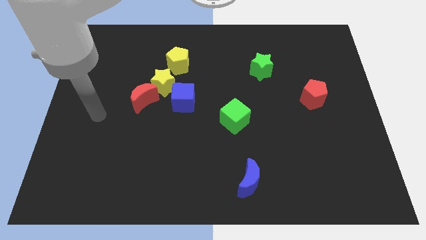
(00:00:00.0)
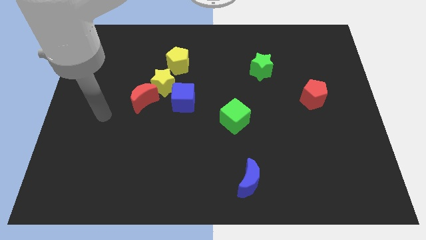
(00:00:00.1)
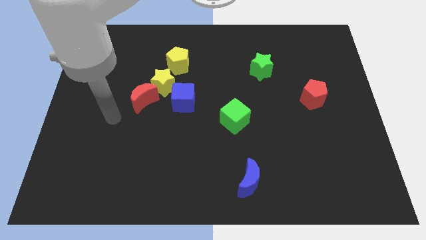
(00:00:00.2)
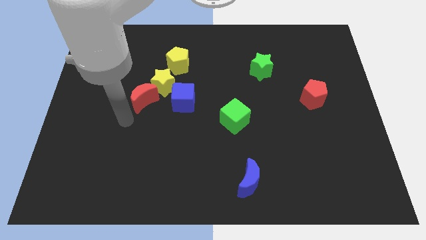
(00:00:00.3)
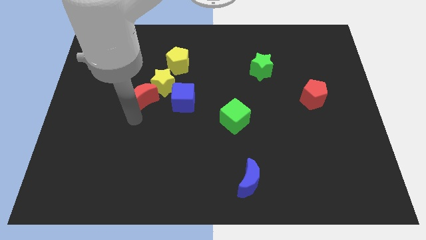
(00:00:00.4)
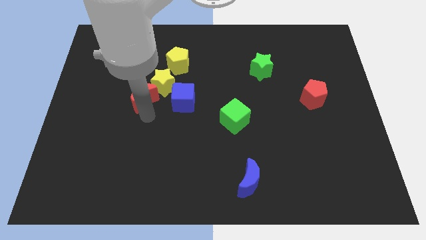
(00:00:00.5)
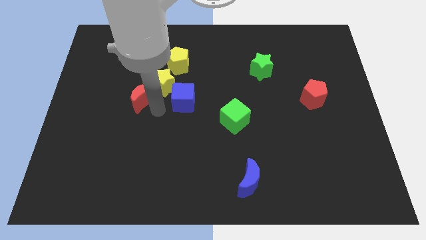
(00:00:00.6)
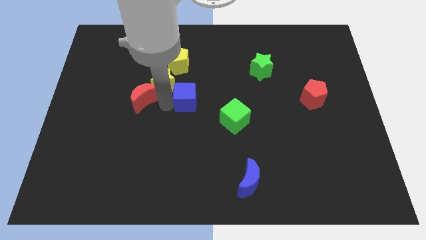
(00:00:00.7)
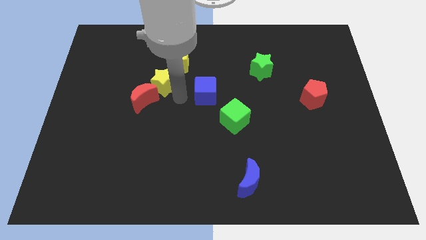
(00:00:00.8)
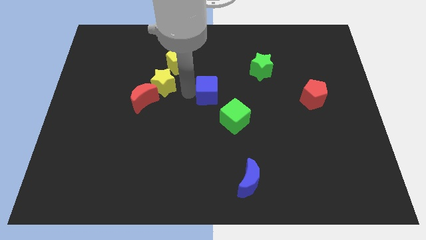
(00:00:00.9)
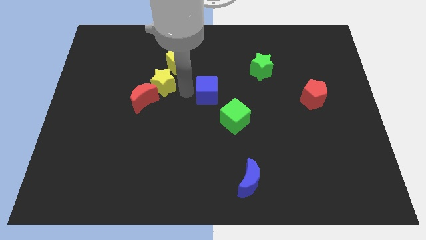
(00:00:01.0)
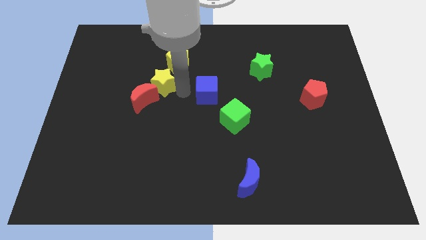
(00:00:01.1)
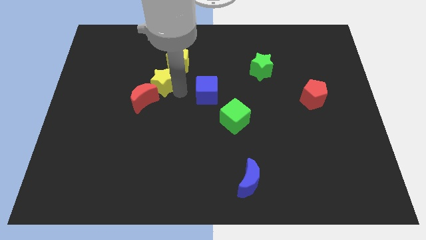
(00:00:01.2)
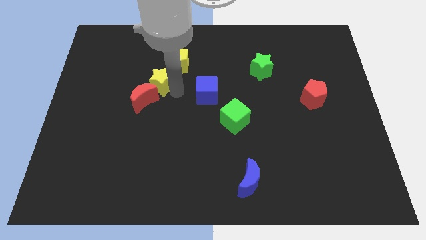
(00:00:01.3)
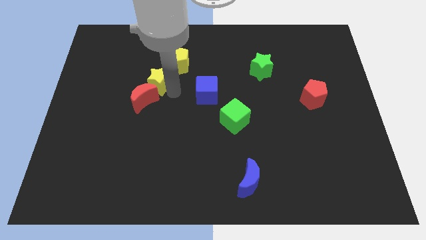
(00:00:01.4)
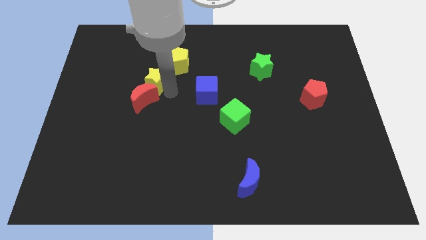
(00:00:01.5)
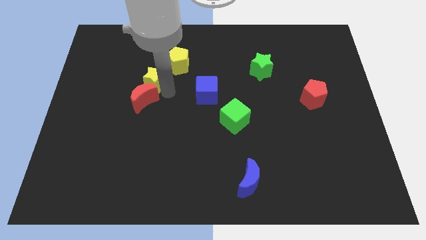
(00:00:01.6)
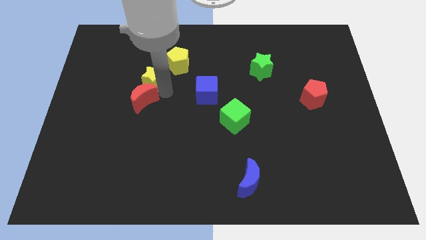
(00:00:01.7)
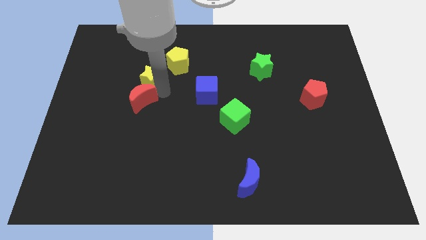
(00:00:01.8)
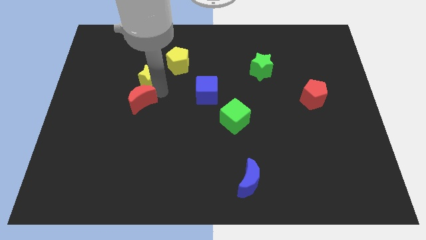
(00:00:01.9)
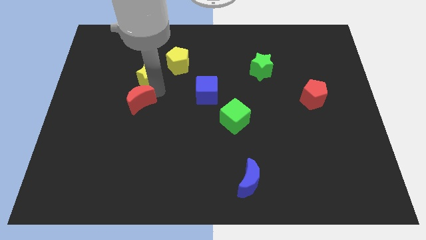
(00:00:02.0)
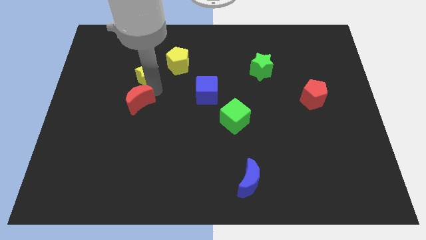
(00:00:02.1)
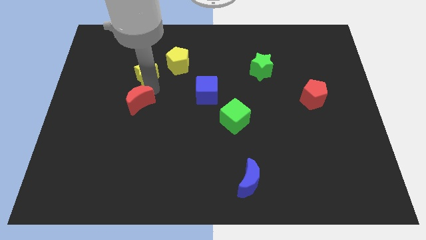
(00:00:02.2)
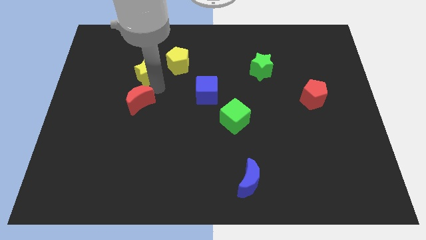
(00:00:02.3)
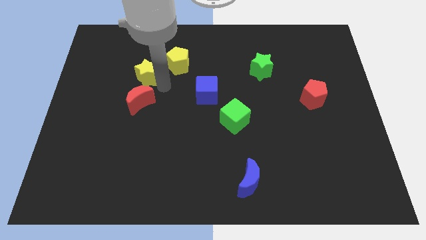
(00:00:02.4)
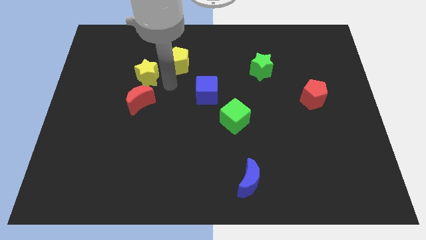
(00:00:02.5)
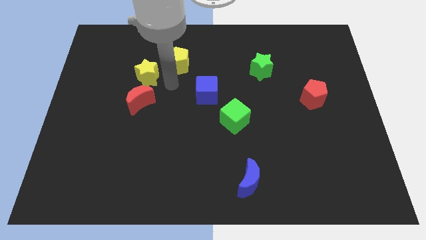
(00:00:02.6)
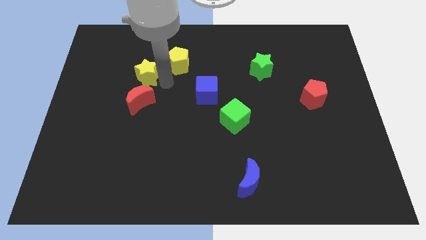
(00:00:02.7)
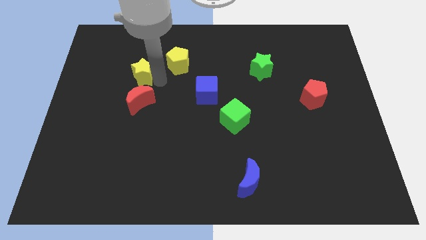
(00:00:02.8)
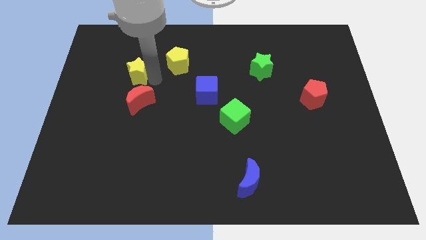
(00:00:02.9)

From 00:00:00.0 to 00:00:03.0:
move the yellow star away from the red moon, blue cube, and yellow pentagon

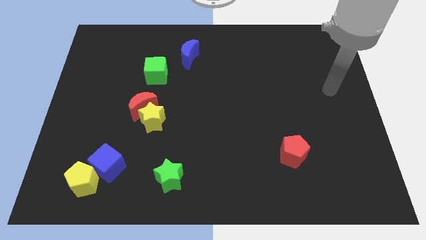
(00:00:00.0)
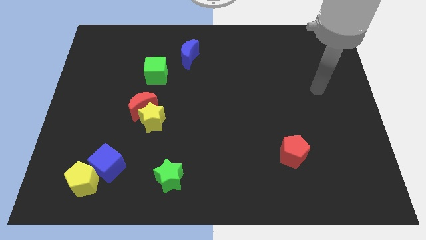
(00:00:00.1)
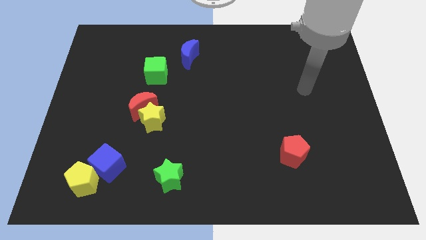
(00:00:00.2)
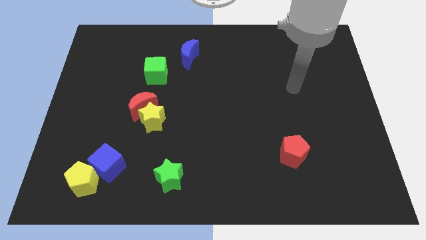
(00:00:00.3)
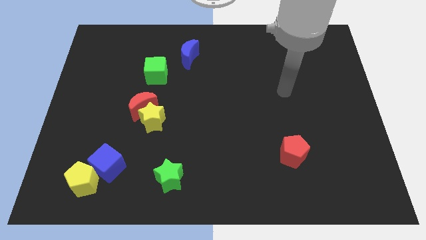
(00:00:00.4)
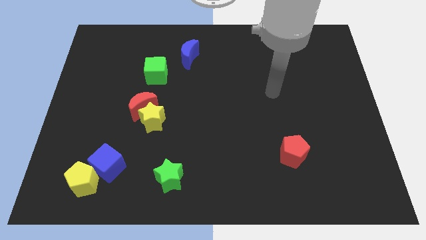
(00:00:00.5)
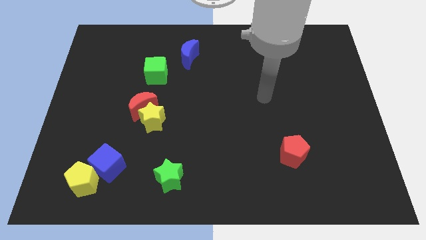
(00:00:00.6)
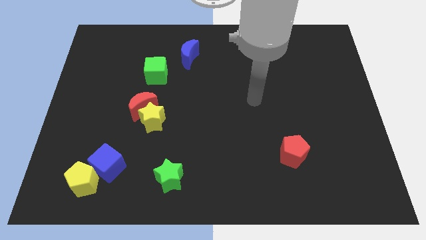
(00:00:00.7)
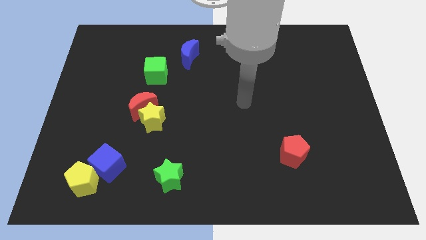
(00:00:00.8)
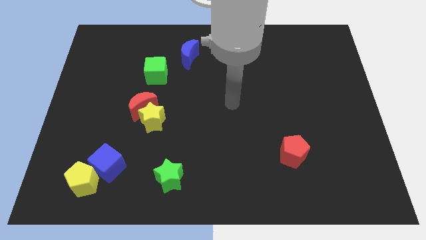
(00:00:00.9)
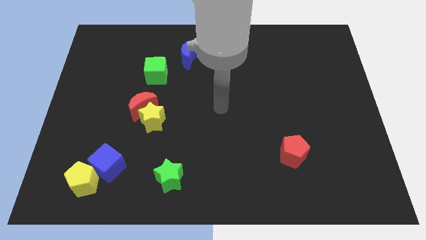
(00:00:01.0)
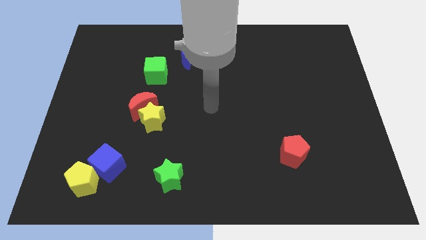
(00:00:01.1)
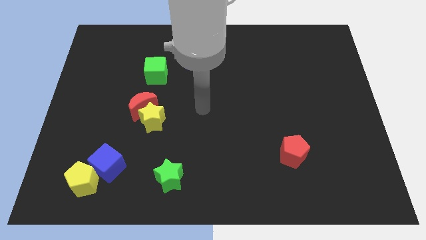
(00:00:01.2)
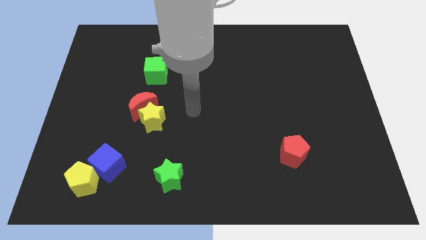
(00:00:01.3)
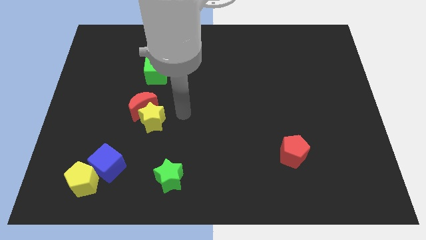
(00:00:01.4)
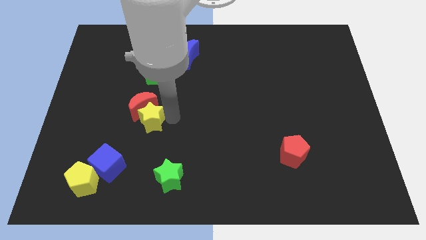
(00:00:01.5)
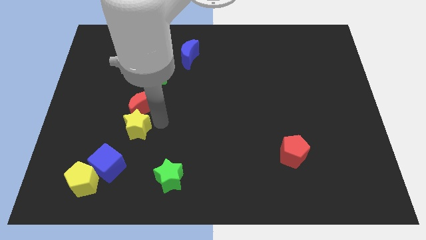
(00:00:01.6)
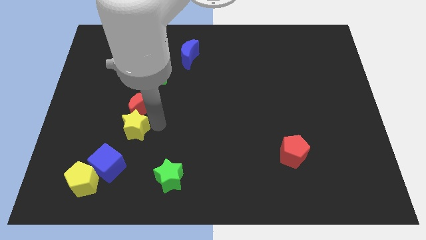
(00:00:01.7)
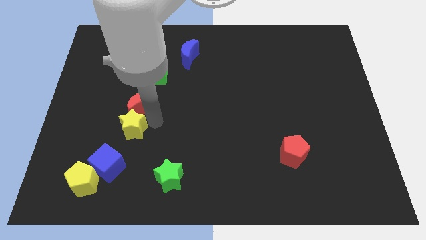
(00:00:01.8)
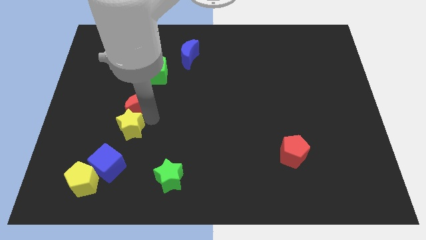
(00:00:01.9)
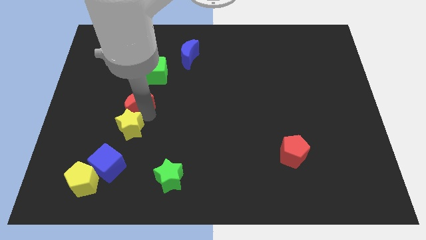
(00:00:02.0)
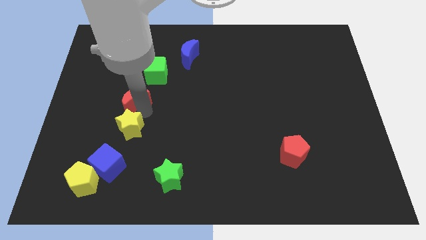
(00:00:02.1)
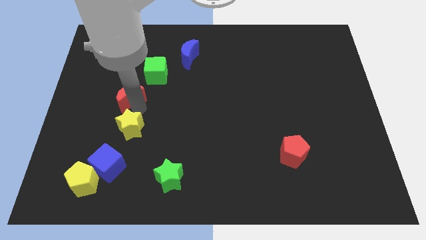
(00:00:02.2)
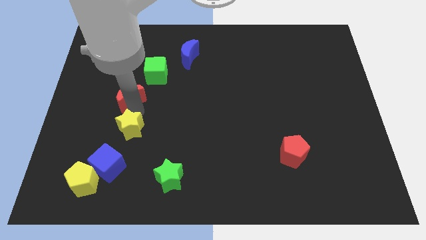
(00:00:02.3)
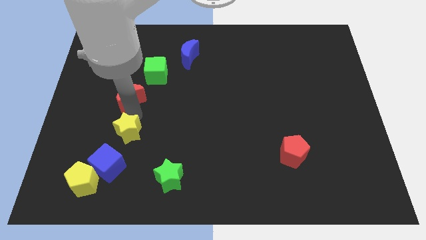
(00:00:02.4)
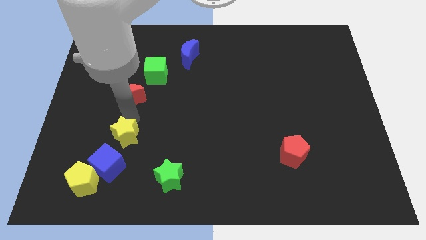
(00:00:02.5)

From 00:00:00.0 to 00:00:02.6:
separate the red moon from the yellow star

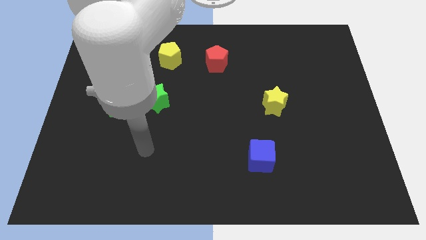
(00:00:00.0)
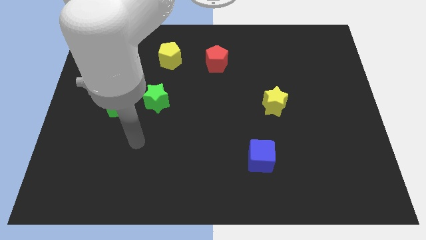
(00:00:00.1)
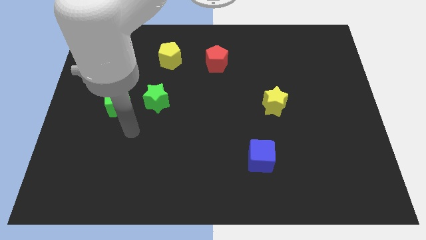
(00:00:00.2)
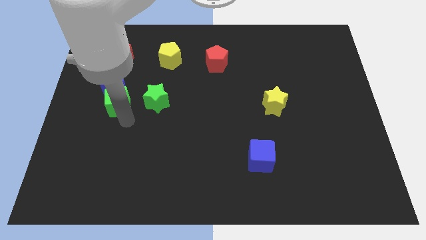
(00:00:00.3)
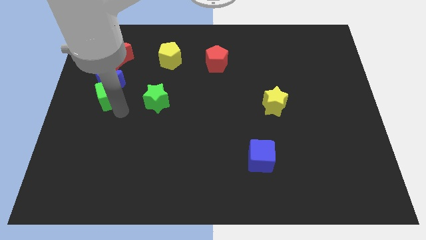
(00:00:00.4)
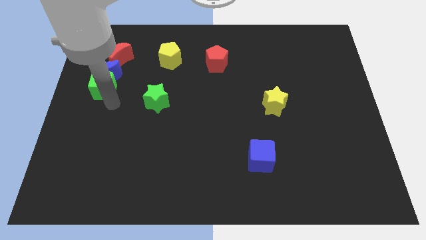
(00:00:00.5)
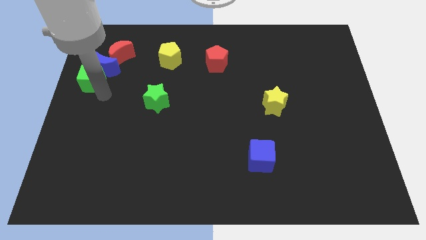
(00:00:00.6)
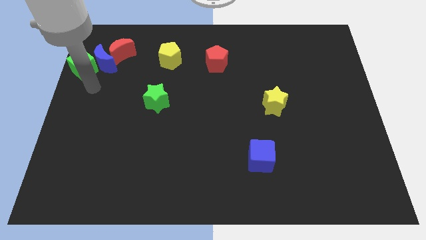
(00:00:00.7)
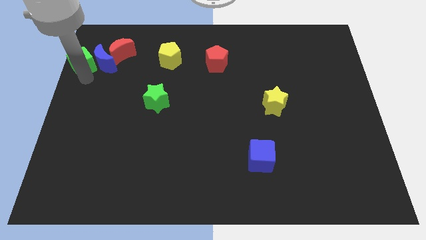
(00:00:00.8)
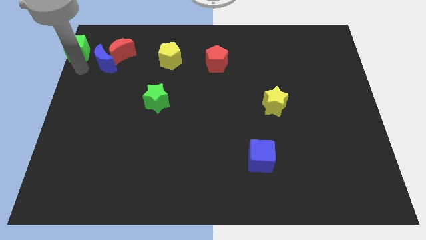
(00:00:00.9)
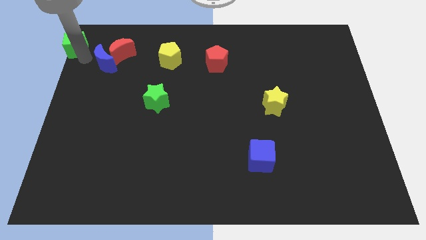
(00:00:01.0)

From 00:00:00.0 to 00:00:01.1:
pull the blue moon apart from the green cube

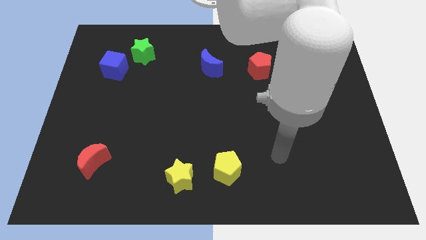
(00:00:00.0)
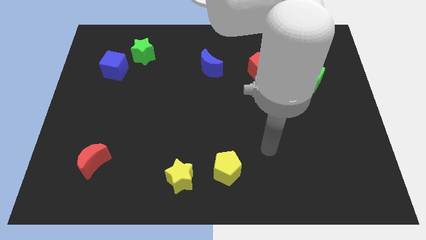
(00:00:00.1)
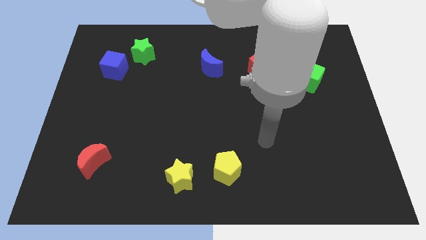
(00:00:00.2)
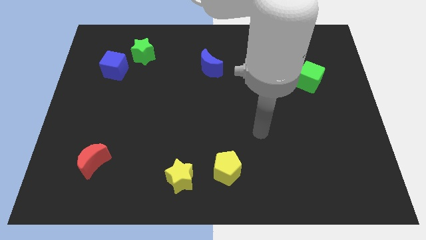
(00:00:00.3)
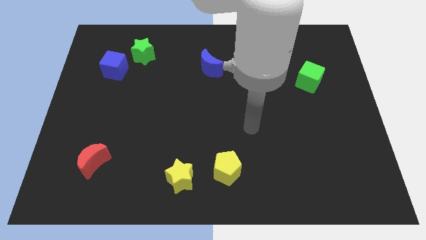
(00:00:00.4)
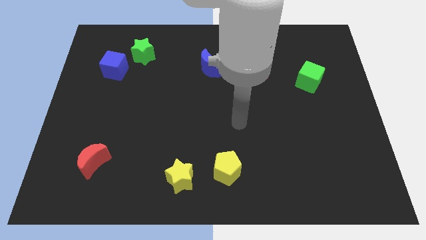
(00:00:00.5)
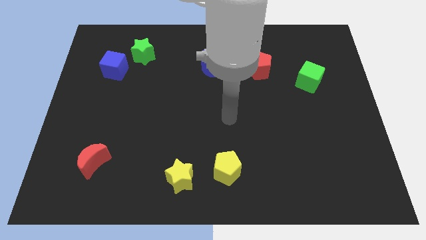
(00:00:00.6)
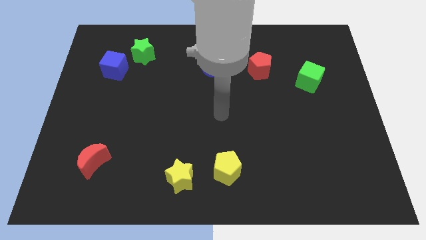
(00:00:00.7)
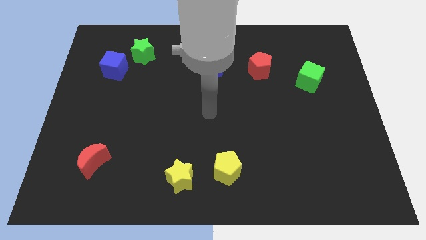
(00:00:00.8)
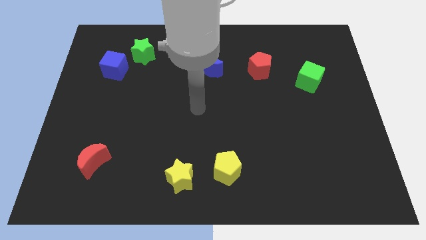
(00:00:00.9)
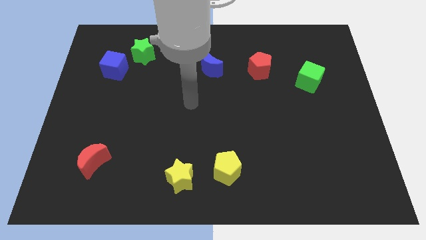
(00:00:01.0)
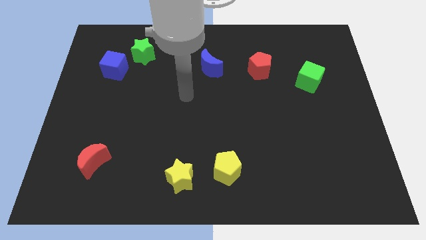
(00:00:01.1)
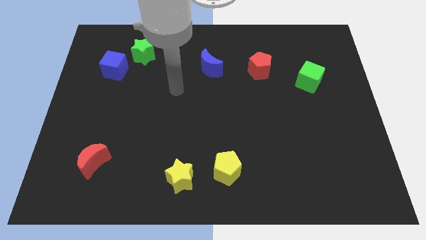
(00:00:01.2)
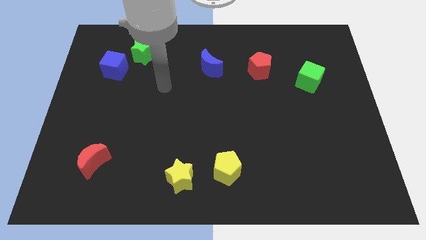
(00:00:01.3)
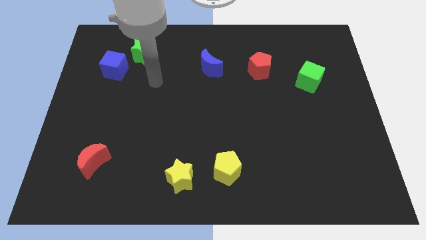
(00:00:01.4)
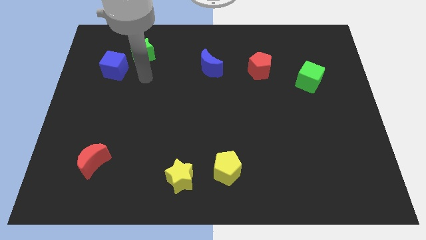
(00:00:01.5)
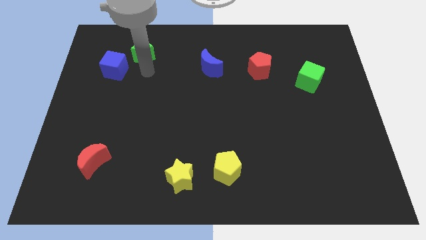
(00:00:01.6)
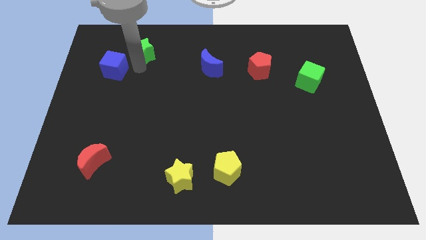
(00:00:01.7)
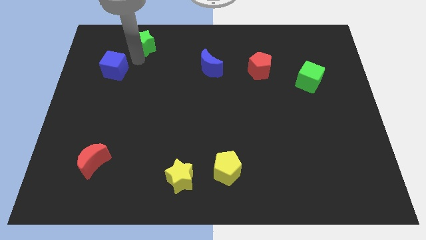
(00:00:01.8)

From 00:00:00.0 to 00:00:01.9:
move the blue cube away from the green star

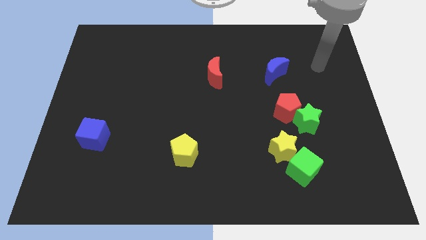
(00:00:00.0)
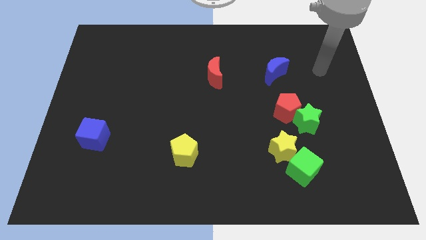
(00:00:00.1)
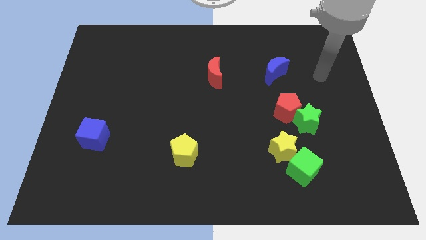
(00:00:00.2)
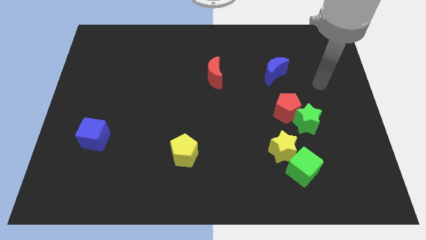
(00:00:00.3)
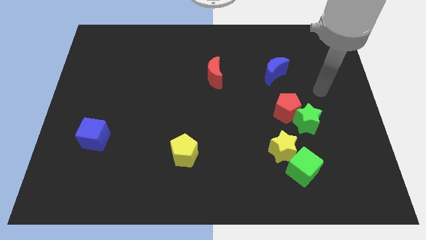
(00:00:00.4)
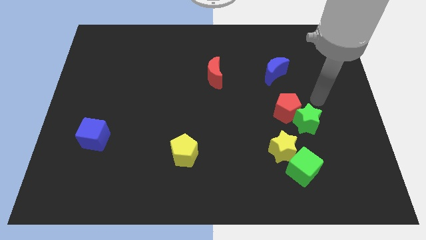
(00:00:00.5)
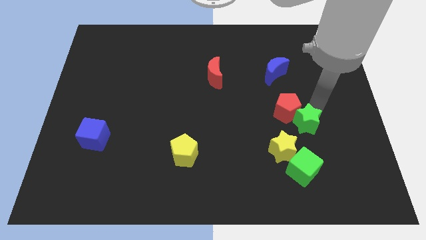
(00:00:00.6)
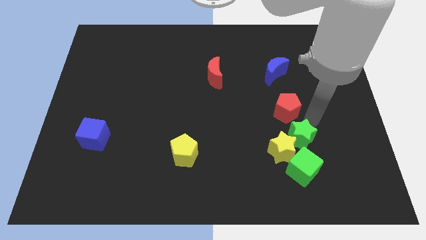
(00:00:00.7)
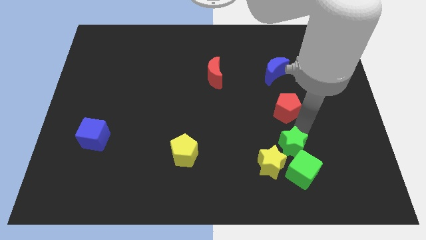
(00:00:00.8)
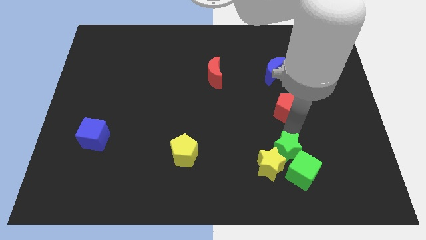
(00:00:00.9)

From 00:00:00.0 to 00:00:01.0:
pull the red pentagon apart from the green star
